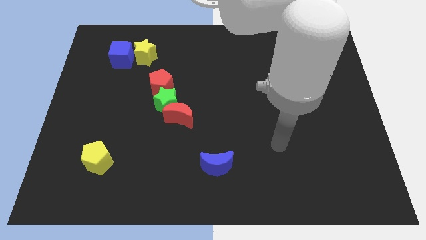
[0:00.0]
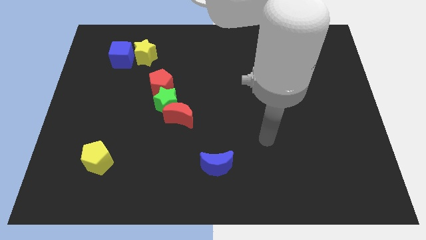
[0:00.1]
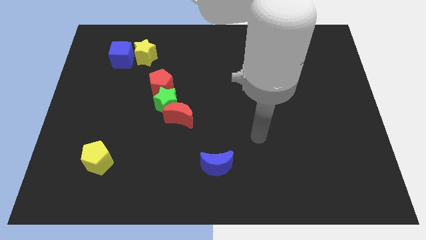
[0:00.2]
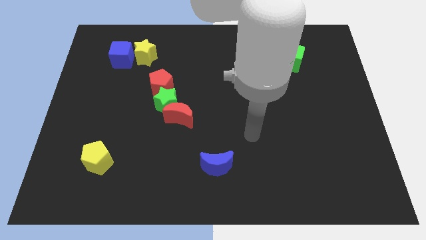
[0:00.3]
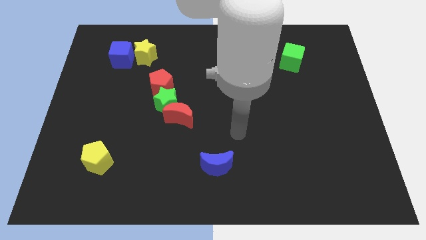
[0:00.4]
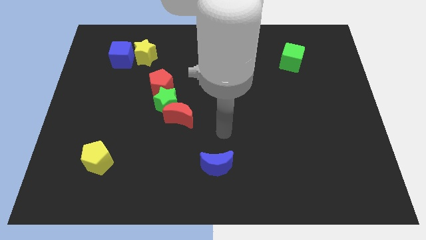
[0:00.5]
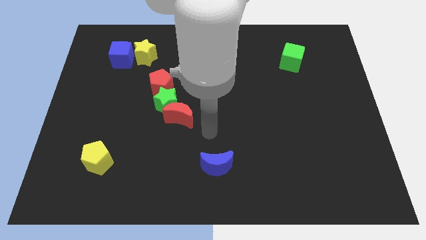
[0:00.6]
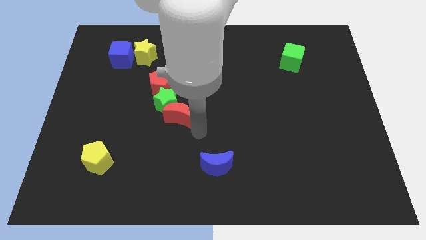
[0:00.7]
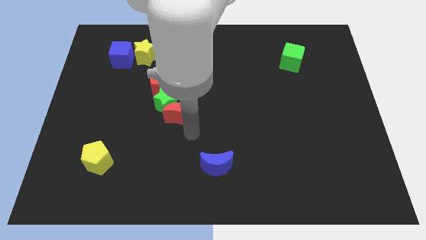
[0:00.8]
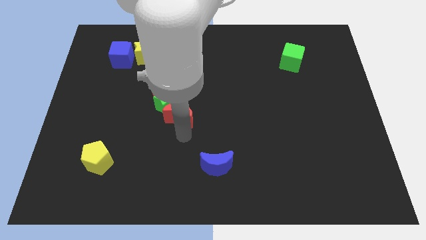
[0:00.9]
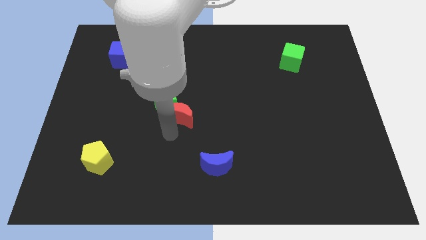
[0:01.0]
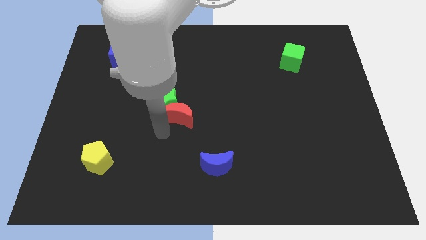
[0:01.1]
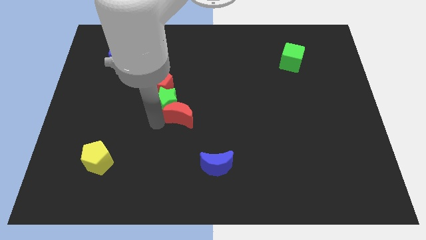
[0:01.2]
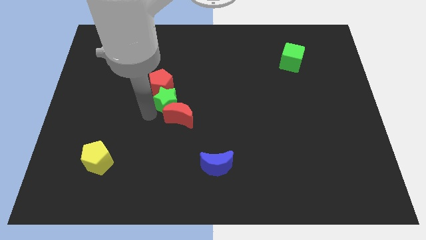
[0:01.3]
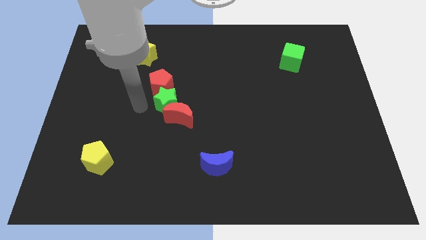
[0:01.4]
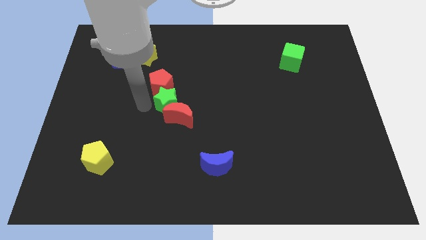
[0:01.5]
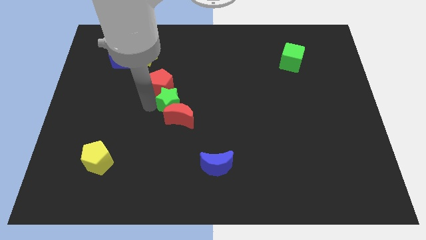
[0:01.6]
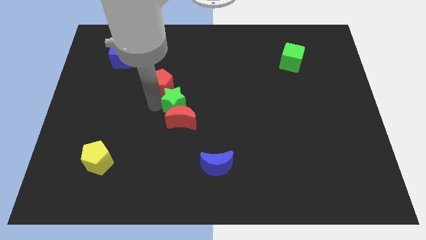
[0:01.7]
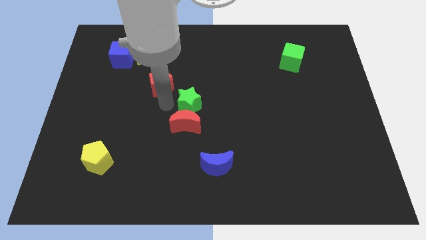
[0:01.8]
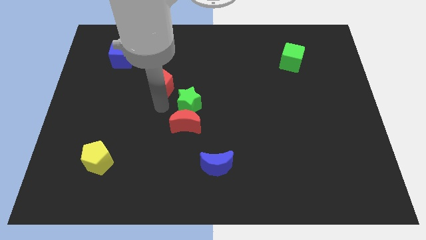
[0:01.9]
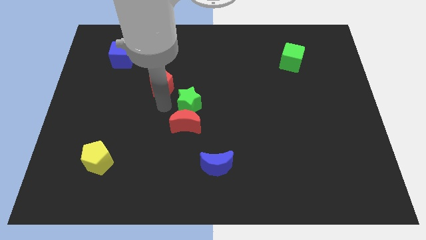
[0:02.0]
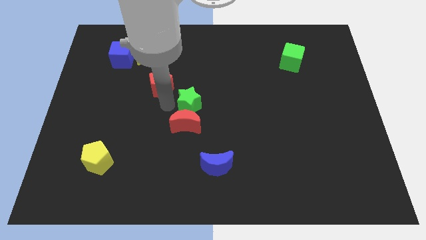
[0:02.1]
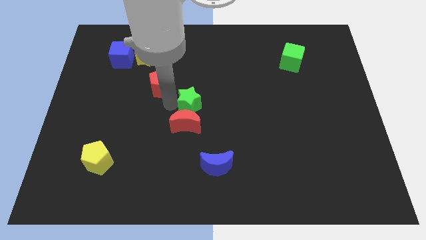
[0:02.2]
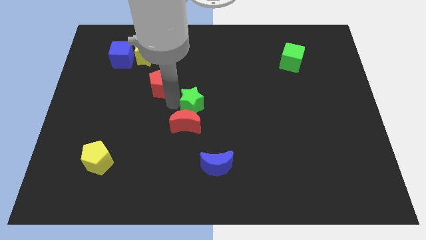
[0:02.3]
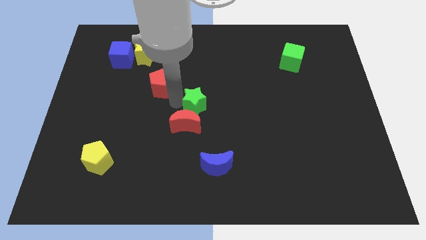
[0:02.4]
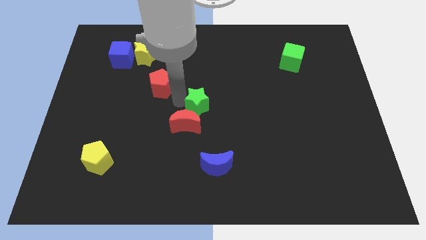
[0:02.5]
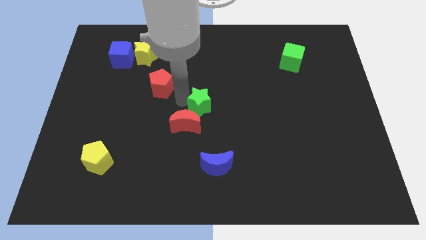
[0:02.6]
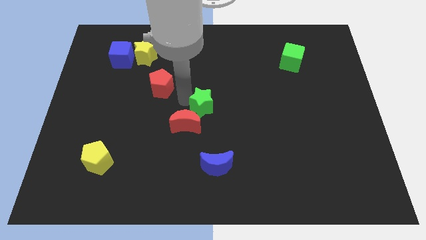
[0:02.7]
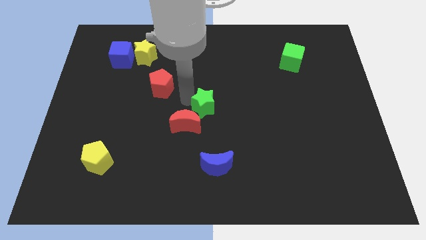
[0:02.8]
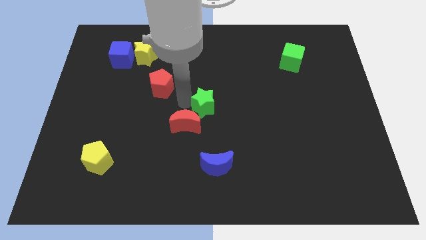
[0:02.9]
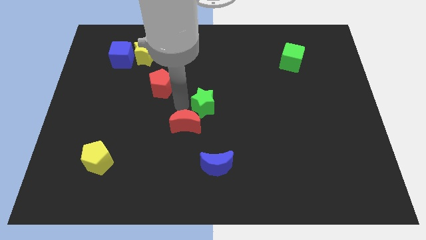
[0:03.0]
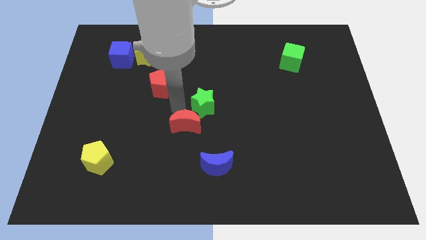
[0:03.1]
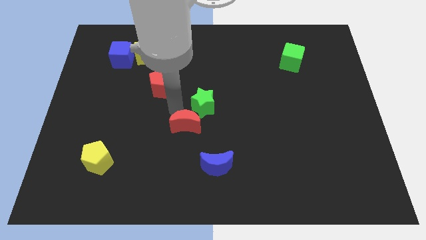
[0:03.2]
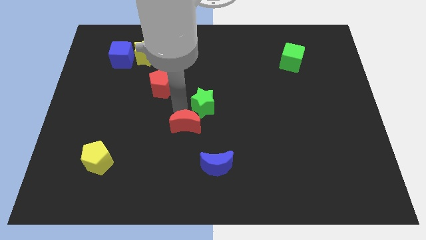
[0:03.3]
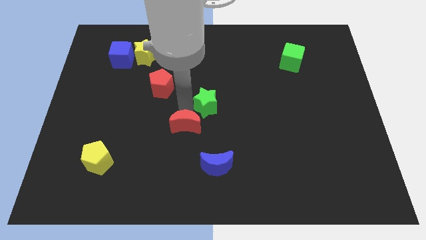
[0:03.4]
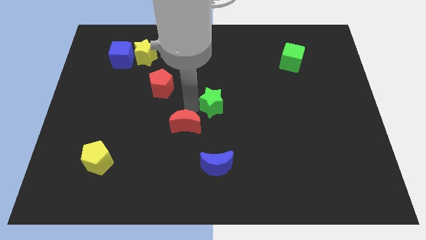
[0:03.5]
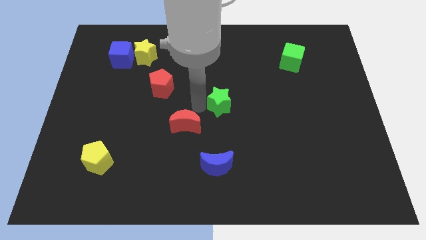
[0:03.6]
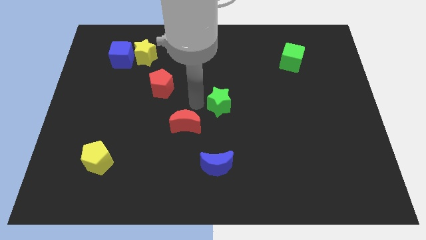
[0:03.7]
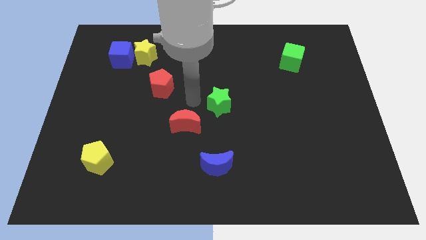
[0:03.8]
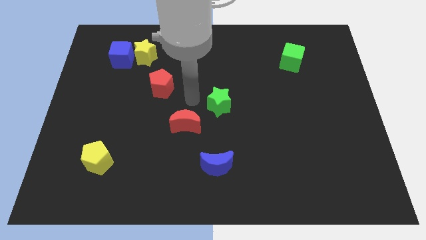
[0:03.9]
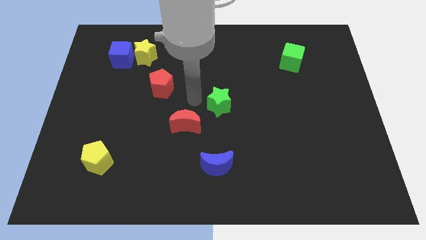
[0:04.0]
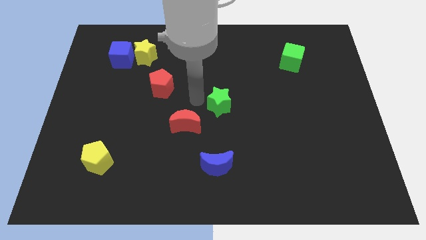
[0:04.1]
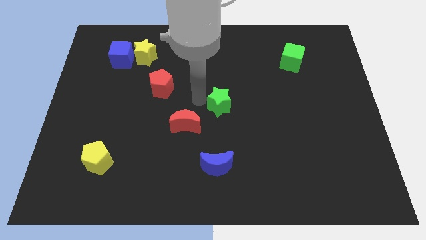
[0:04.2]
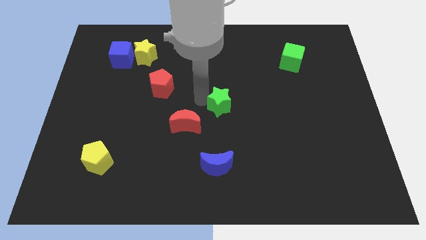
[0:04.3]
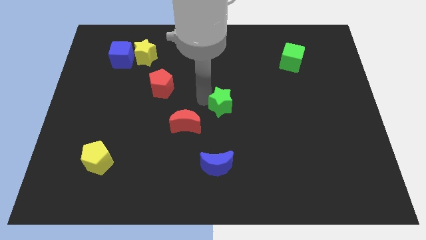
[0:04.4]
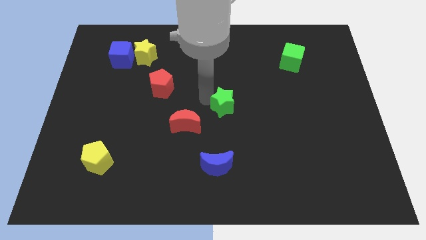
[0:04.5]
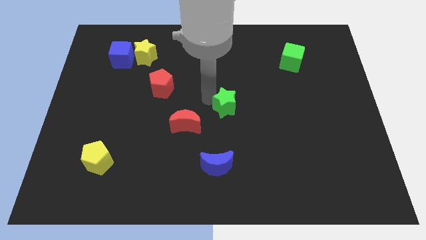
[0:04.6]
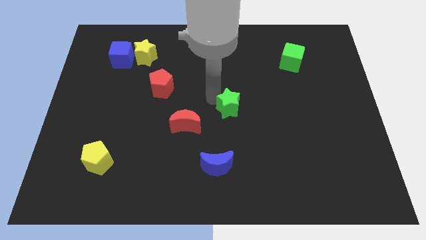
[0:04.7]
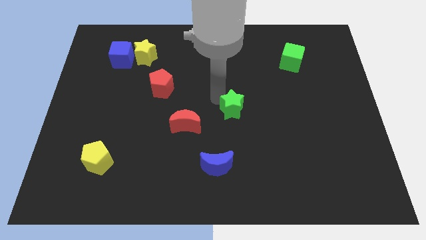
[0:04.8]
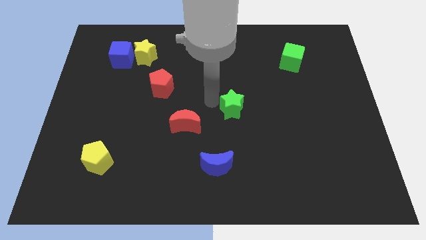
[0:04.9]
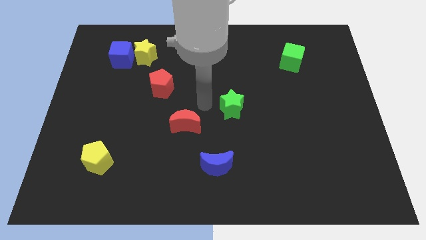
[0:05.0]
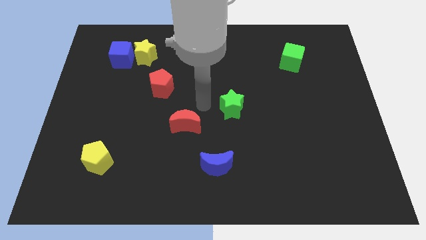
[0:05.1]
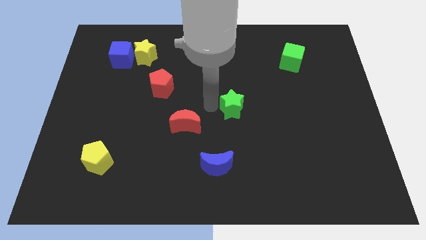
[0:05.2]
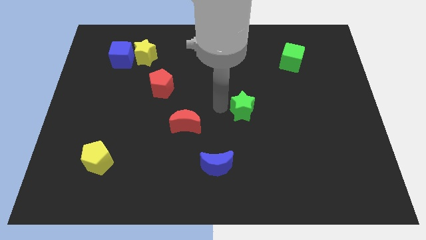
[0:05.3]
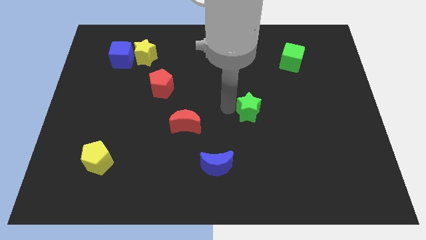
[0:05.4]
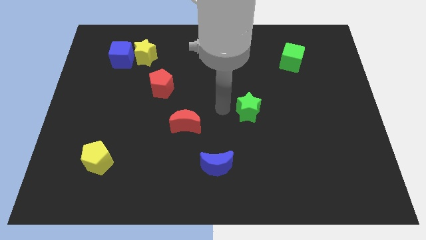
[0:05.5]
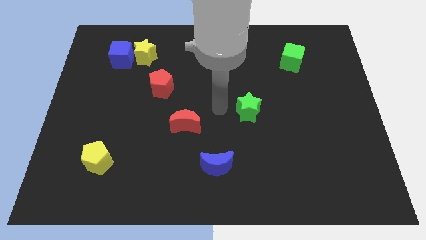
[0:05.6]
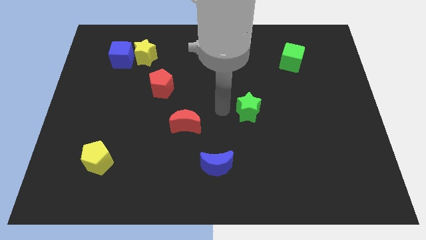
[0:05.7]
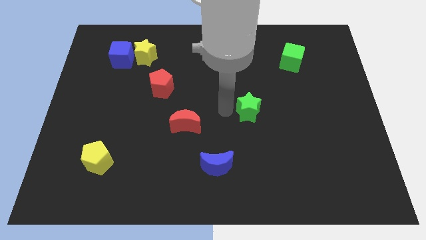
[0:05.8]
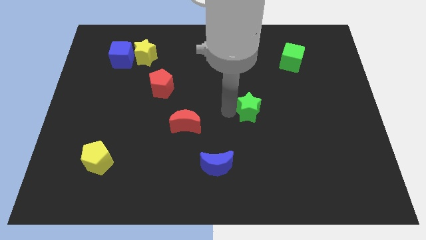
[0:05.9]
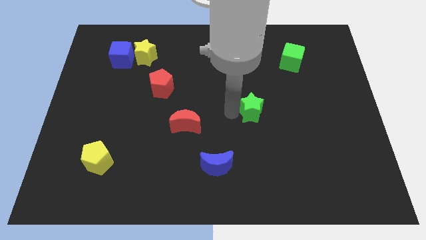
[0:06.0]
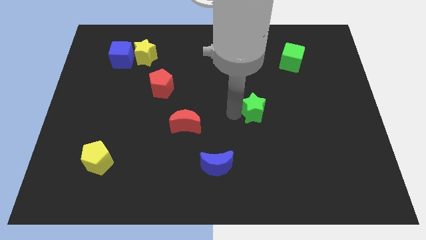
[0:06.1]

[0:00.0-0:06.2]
move the green star to the right

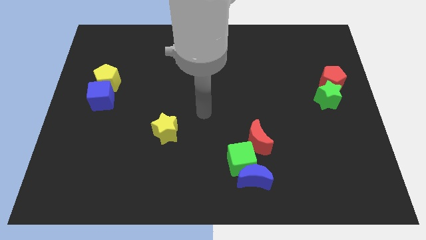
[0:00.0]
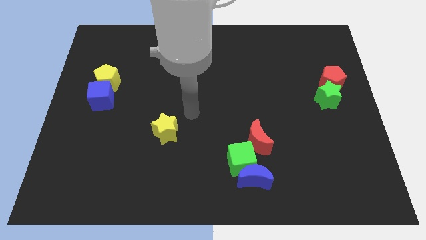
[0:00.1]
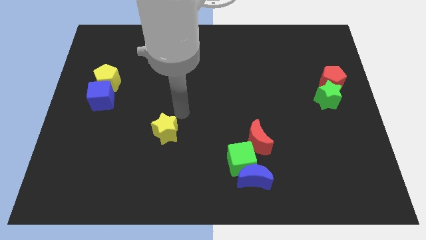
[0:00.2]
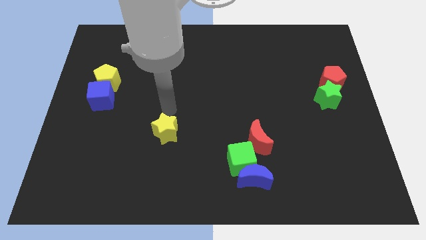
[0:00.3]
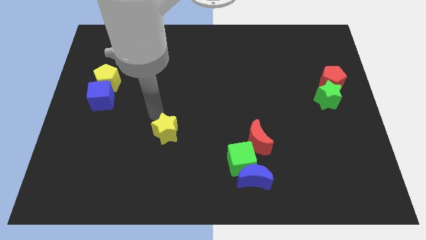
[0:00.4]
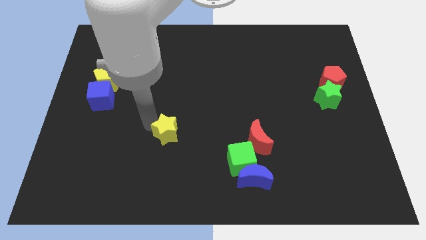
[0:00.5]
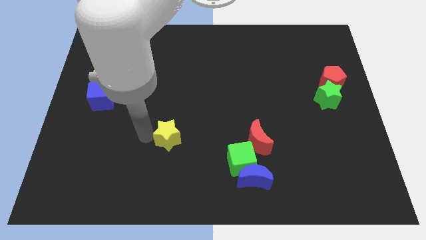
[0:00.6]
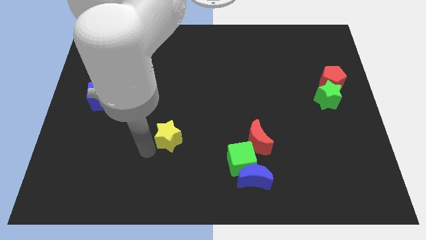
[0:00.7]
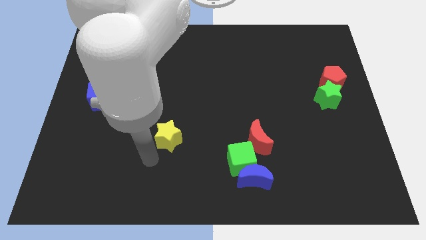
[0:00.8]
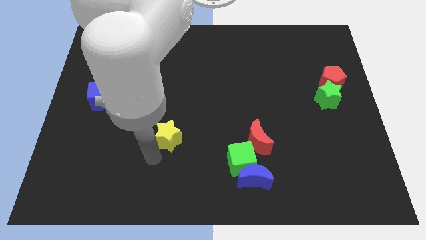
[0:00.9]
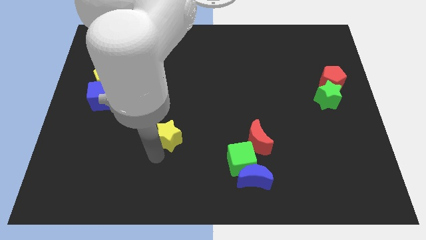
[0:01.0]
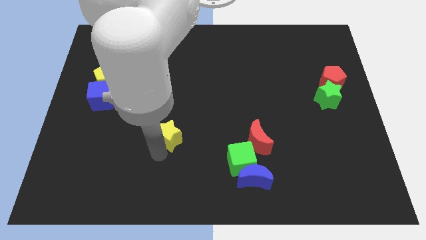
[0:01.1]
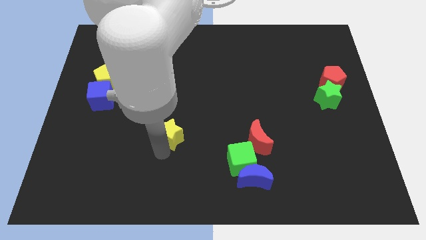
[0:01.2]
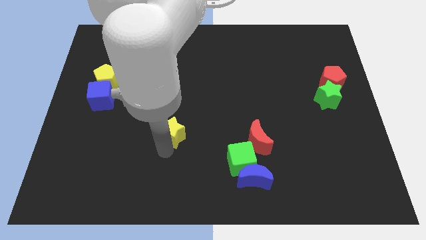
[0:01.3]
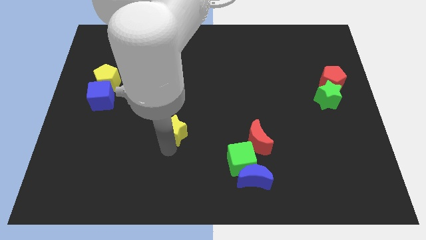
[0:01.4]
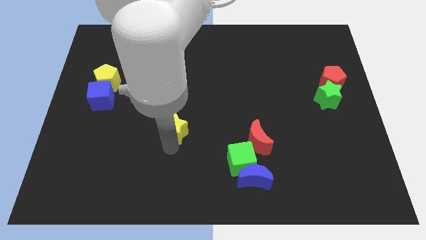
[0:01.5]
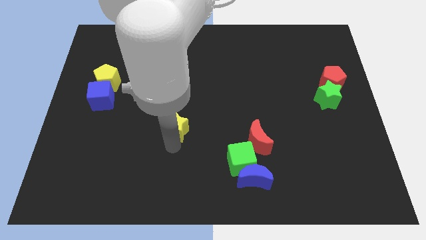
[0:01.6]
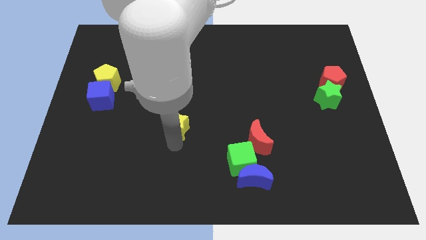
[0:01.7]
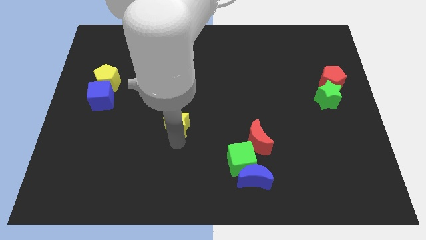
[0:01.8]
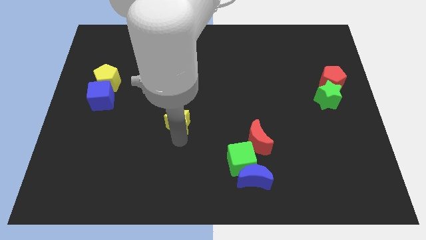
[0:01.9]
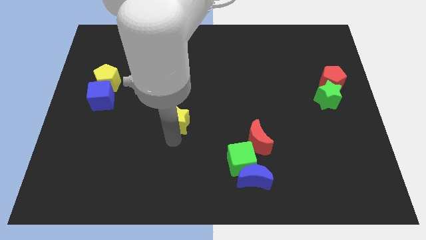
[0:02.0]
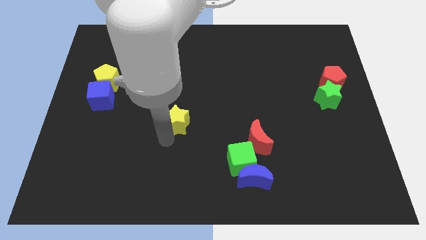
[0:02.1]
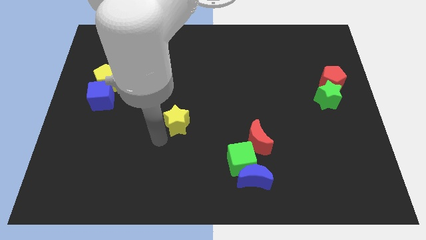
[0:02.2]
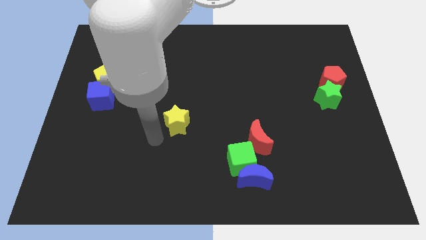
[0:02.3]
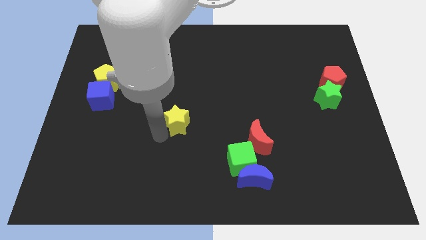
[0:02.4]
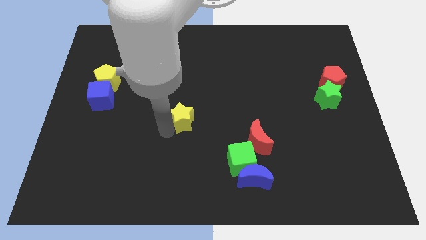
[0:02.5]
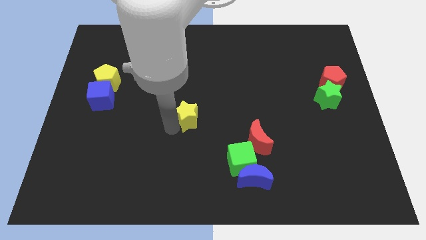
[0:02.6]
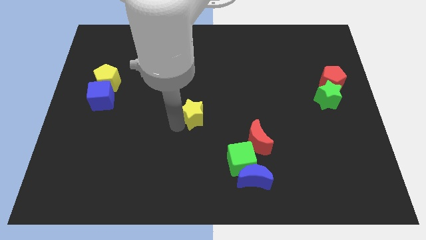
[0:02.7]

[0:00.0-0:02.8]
push the yellow star up and to the right diagonally somewhat
